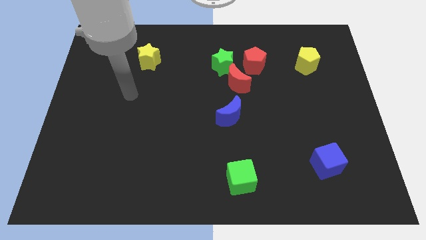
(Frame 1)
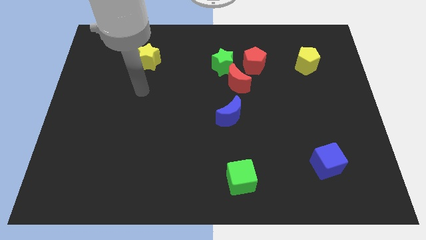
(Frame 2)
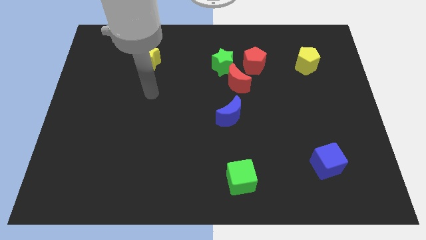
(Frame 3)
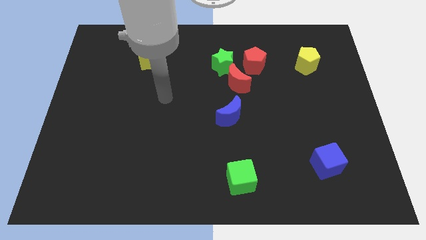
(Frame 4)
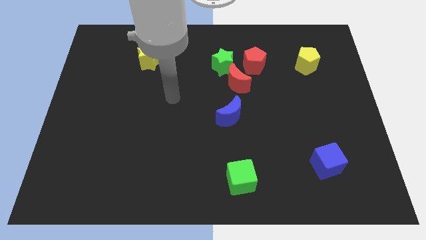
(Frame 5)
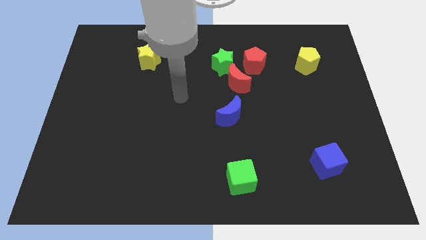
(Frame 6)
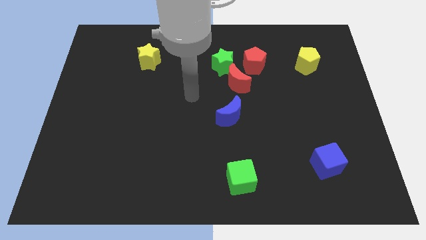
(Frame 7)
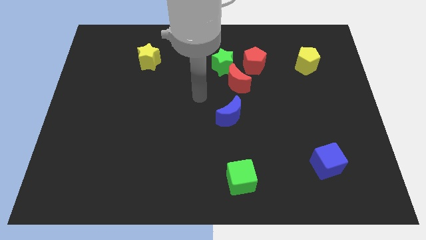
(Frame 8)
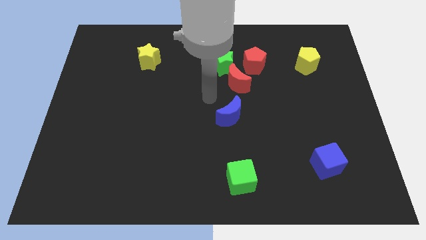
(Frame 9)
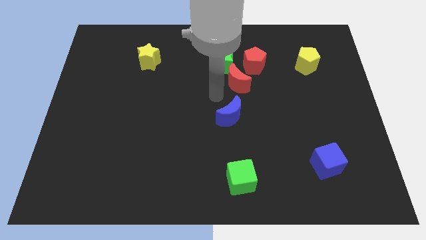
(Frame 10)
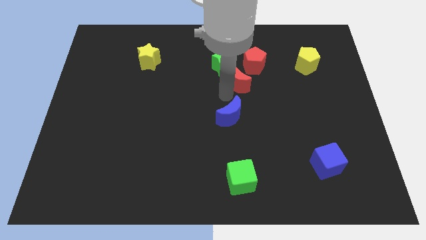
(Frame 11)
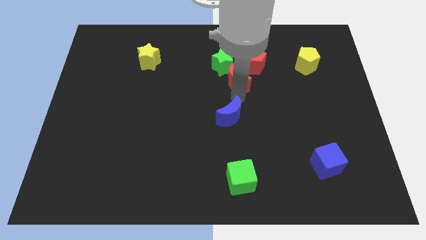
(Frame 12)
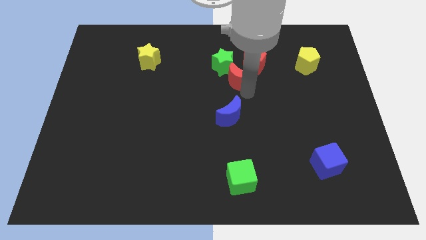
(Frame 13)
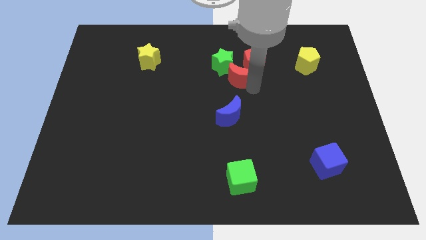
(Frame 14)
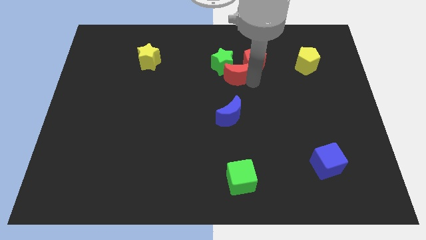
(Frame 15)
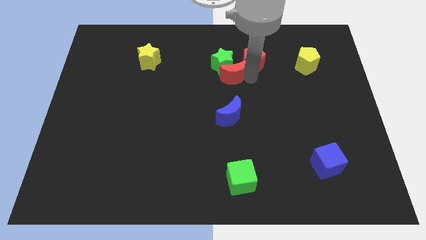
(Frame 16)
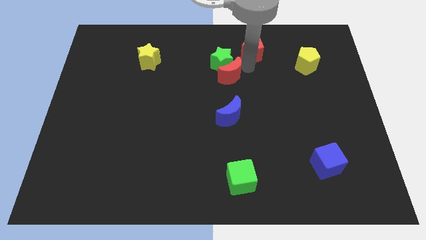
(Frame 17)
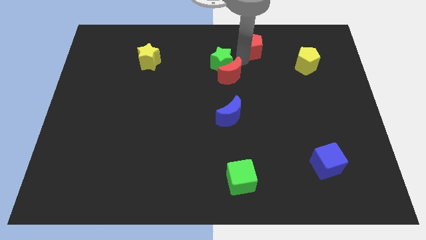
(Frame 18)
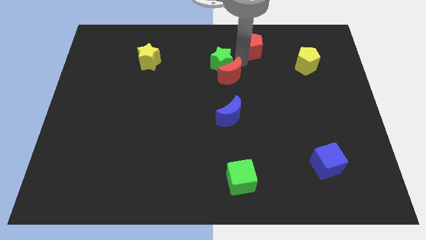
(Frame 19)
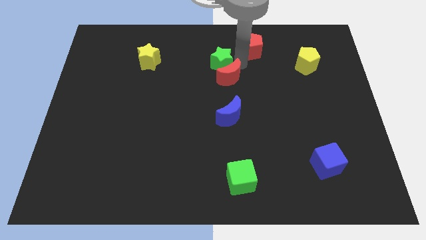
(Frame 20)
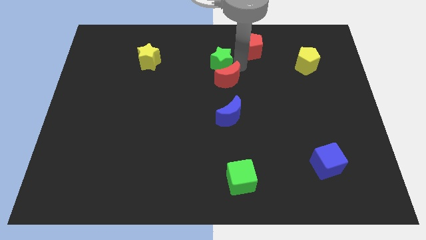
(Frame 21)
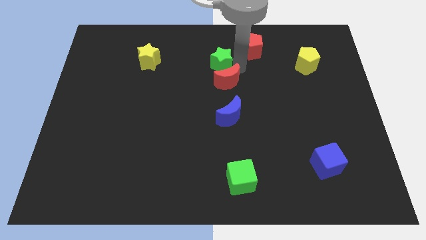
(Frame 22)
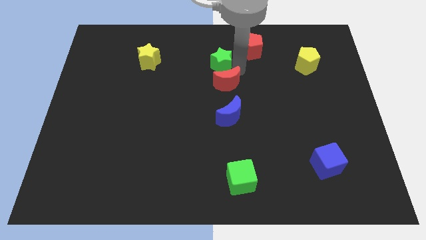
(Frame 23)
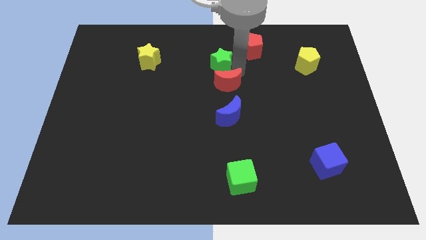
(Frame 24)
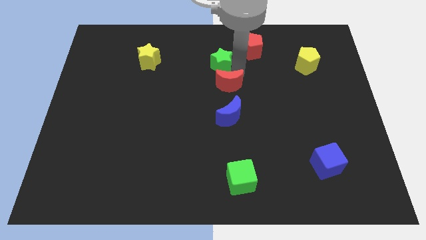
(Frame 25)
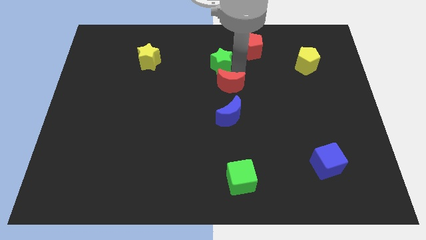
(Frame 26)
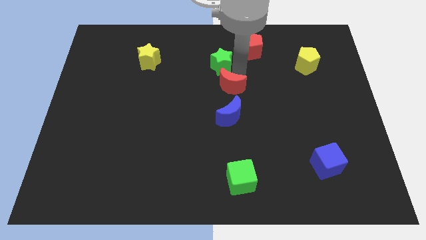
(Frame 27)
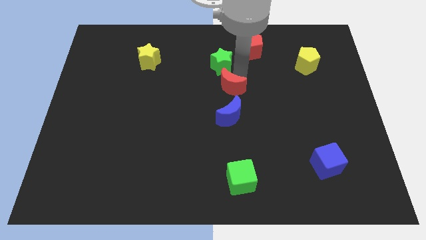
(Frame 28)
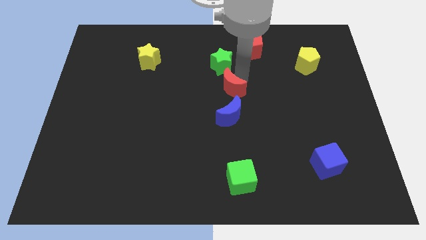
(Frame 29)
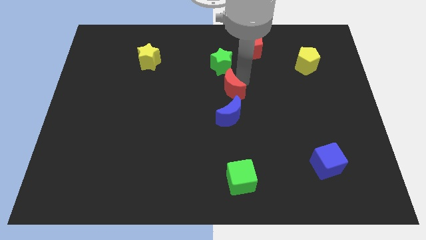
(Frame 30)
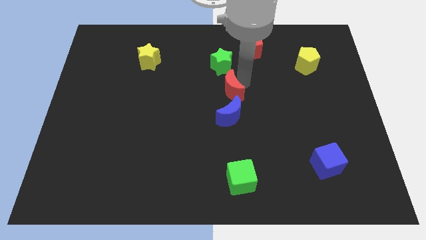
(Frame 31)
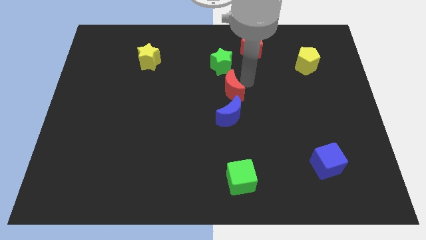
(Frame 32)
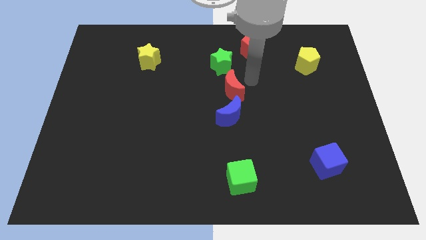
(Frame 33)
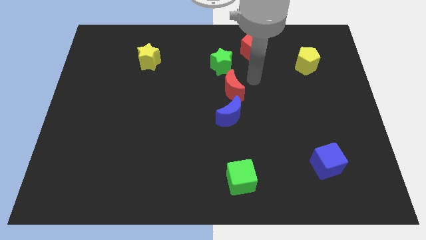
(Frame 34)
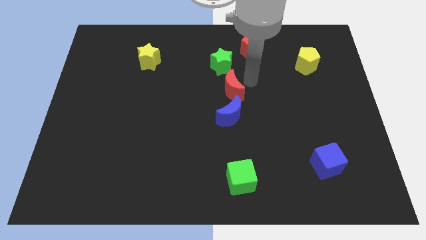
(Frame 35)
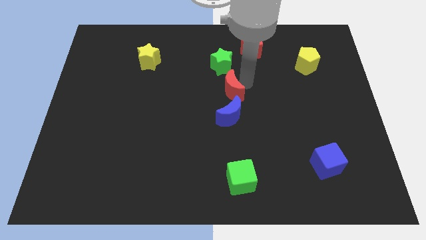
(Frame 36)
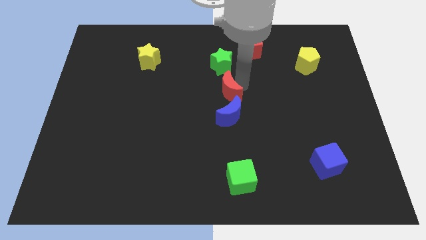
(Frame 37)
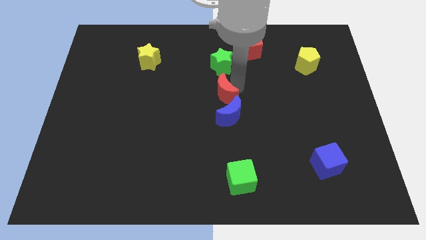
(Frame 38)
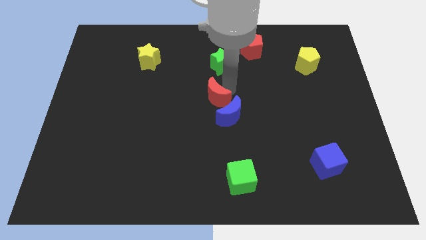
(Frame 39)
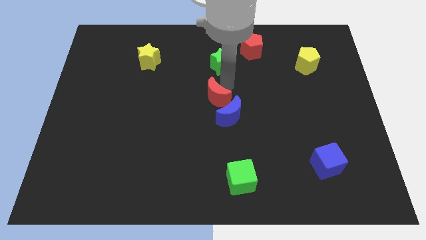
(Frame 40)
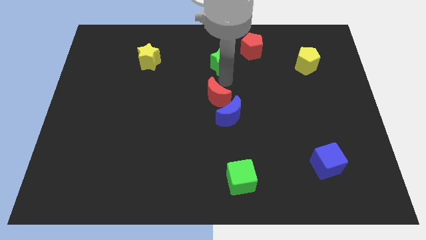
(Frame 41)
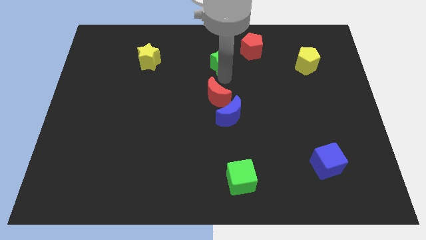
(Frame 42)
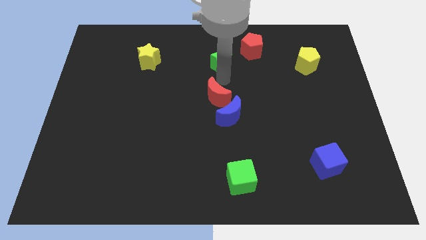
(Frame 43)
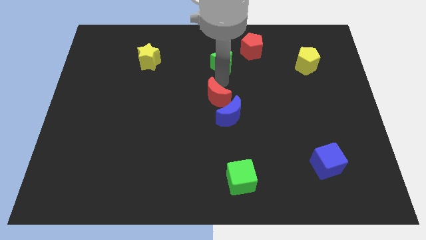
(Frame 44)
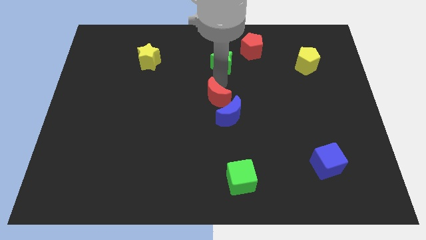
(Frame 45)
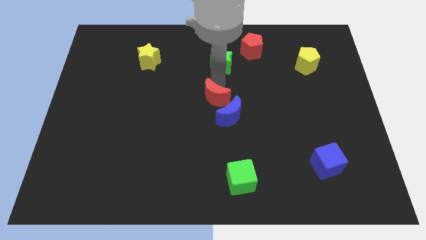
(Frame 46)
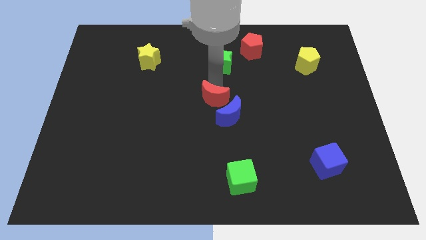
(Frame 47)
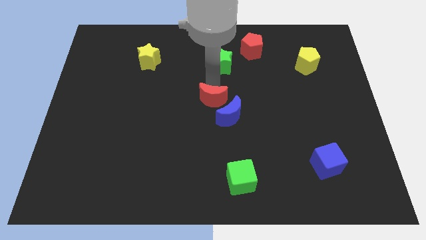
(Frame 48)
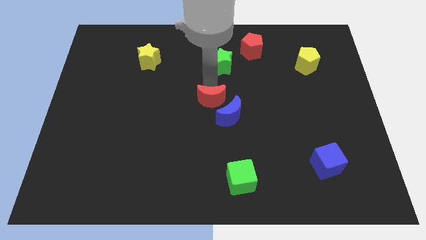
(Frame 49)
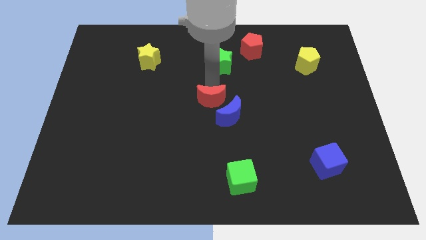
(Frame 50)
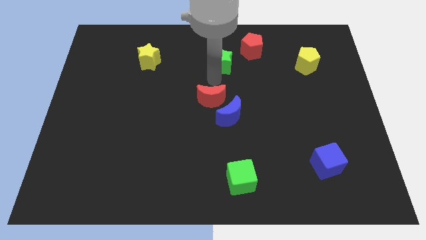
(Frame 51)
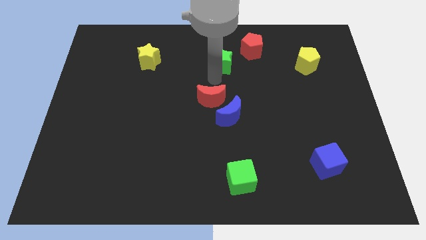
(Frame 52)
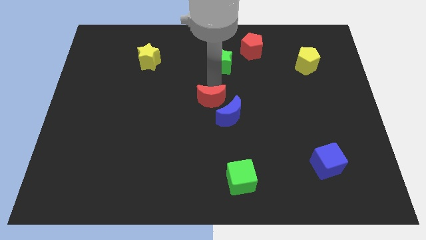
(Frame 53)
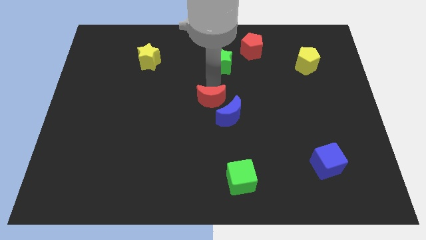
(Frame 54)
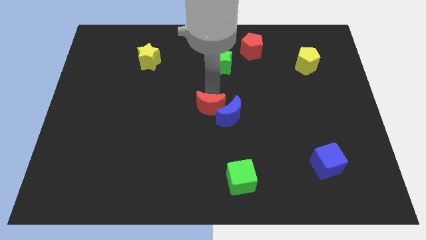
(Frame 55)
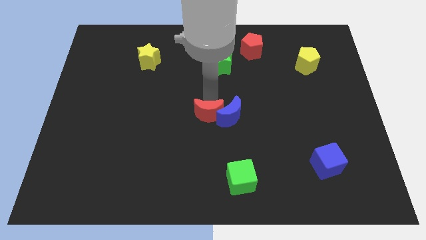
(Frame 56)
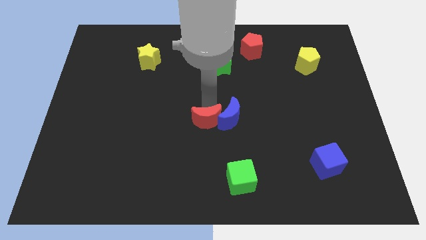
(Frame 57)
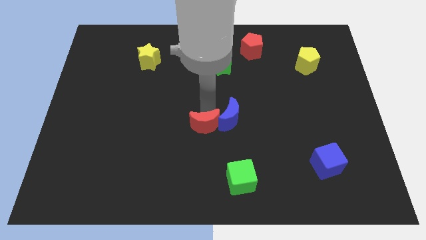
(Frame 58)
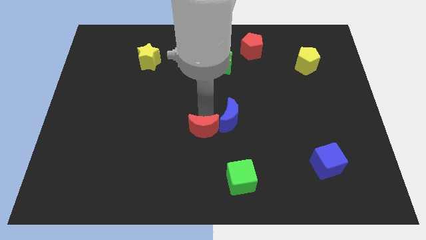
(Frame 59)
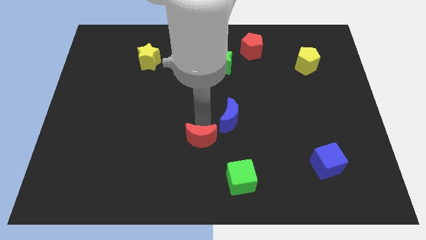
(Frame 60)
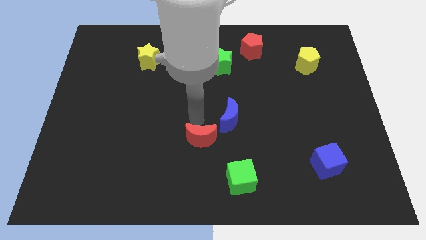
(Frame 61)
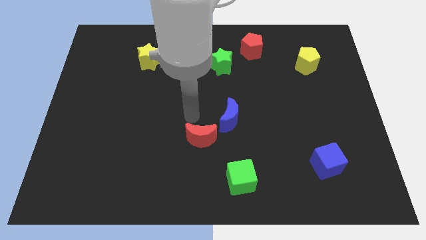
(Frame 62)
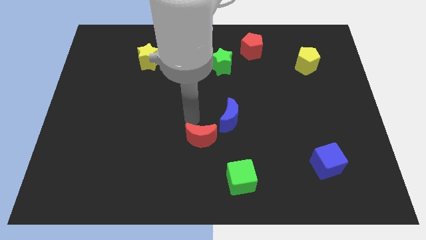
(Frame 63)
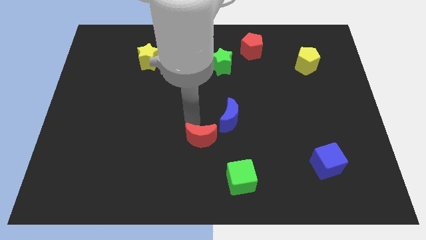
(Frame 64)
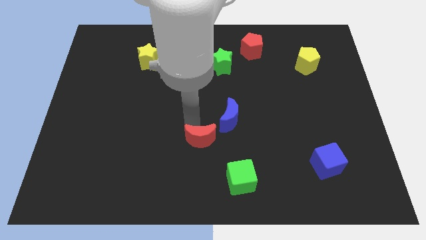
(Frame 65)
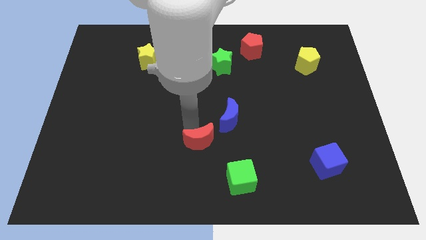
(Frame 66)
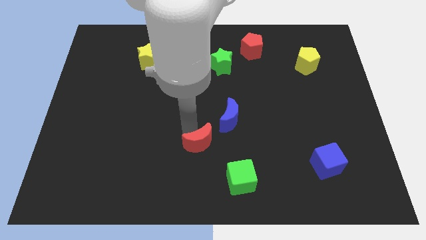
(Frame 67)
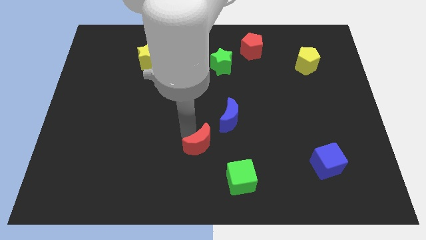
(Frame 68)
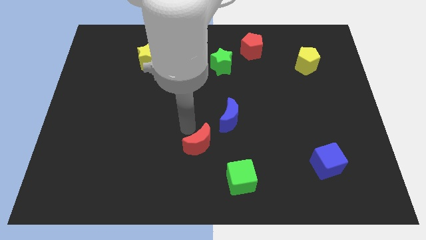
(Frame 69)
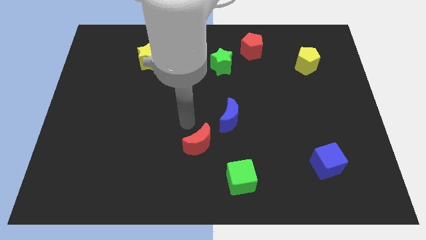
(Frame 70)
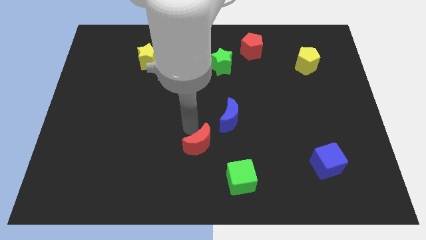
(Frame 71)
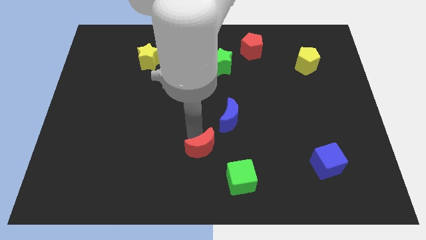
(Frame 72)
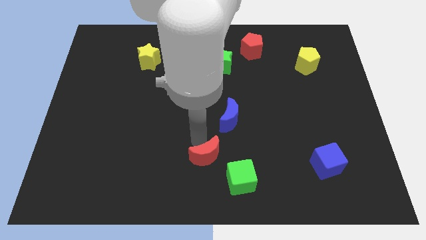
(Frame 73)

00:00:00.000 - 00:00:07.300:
push the red moon to the bottom
